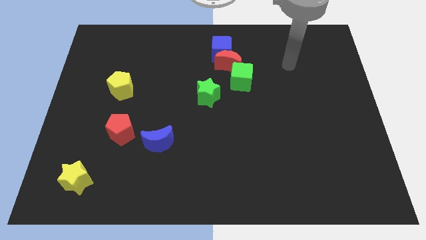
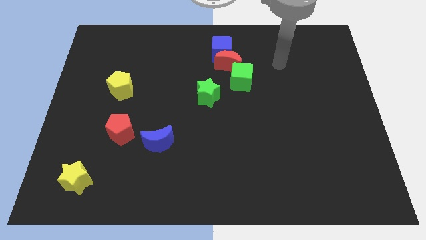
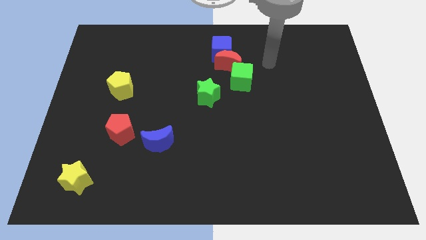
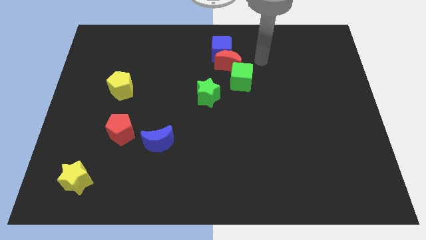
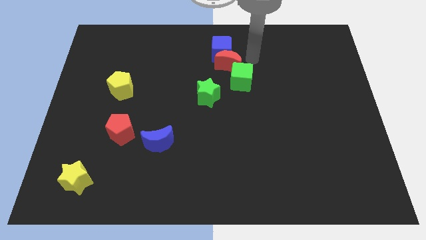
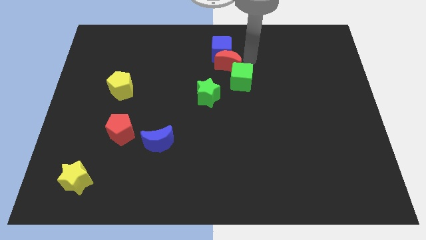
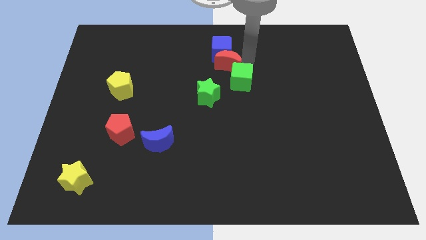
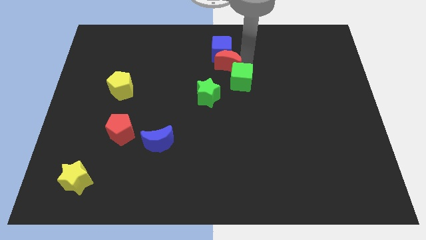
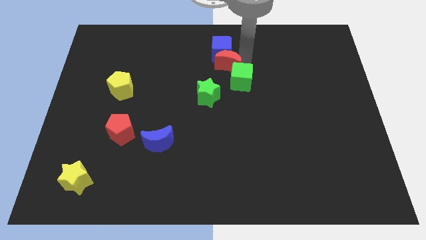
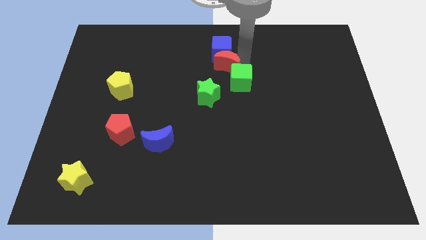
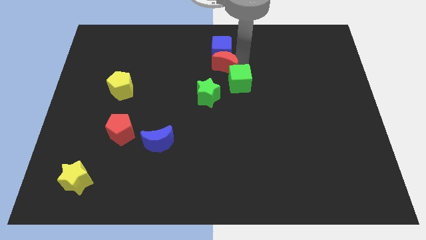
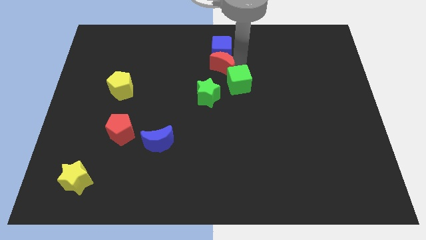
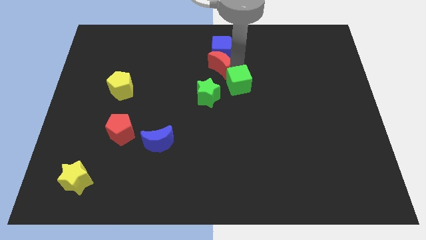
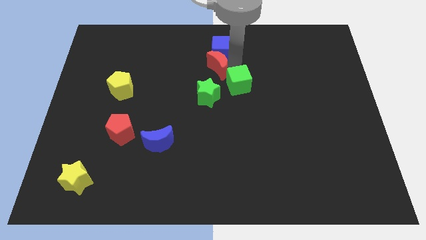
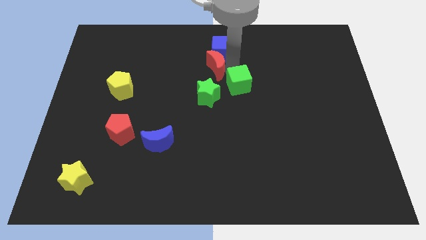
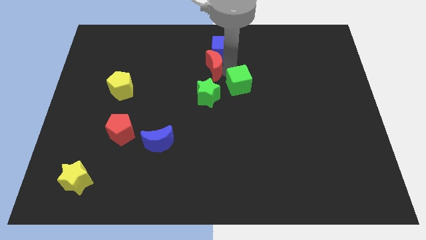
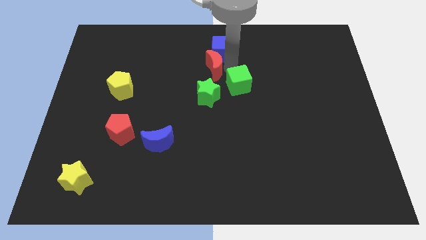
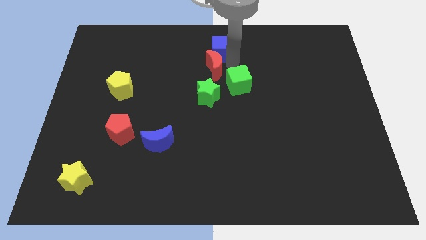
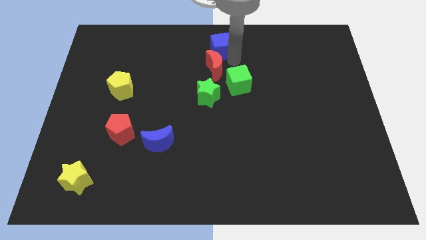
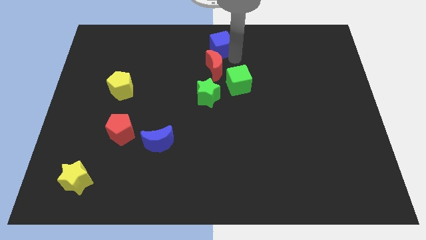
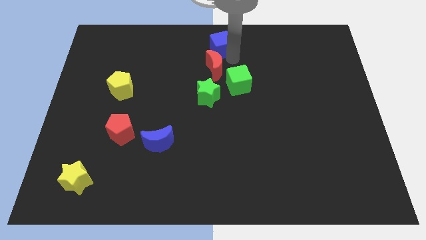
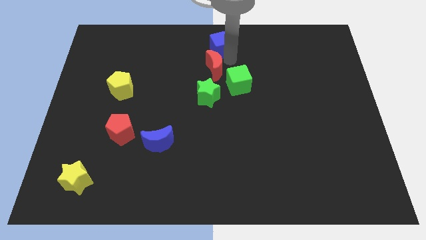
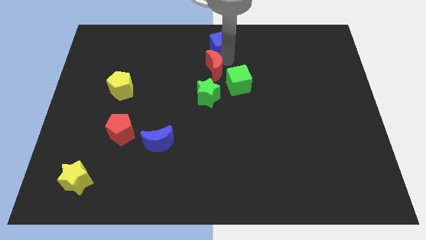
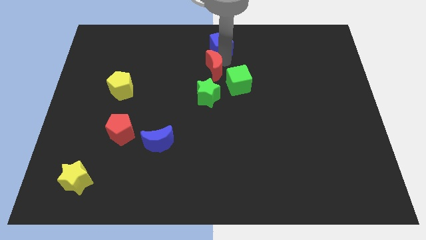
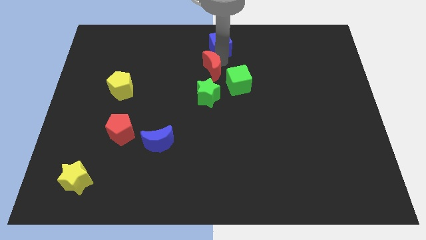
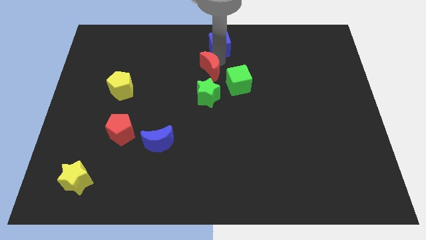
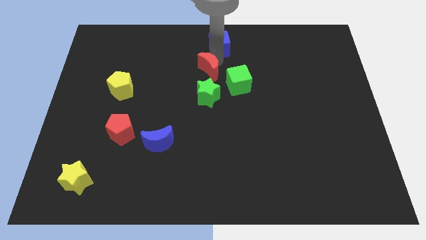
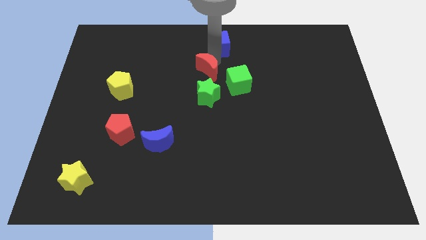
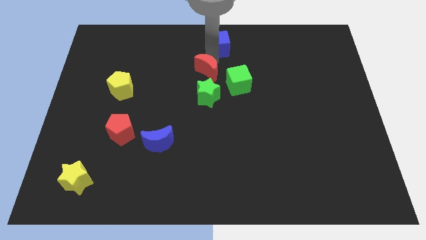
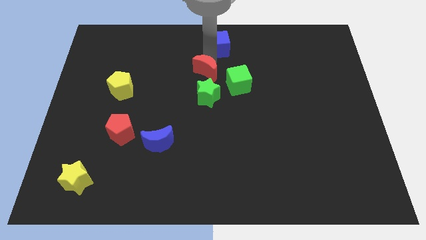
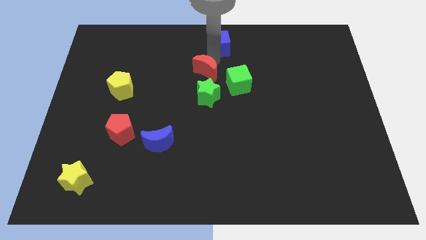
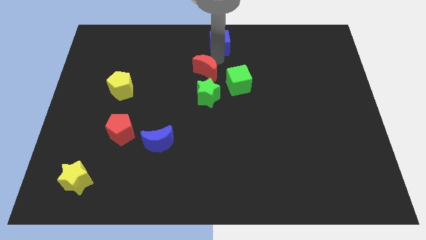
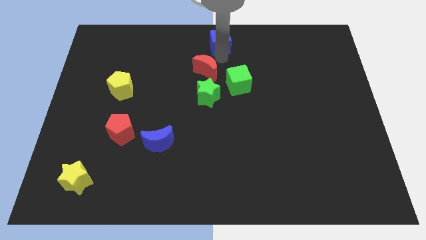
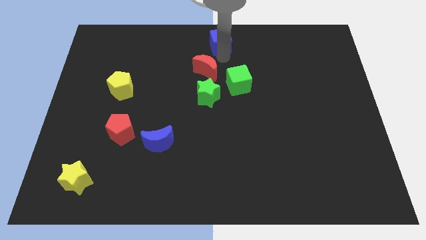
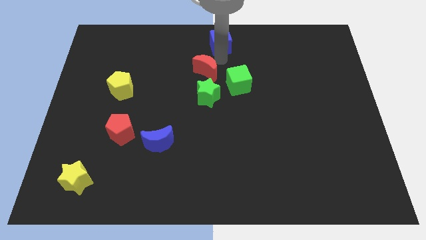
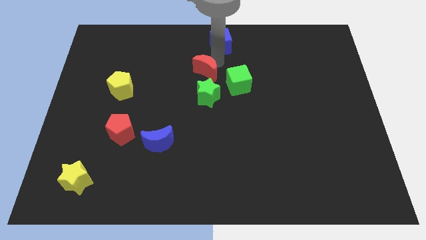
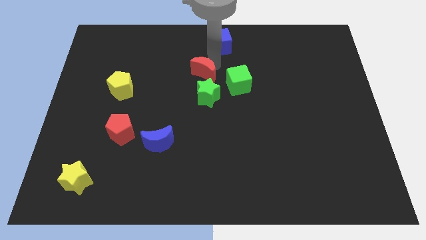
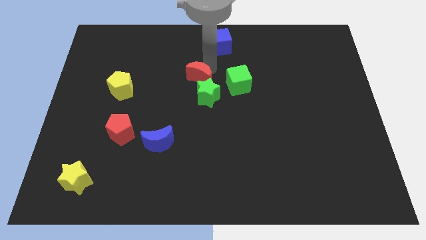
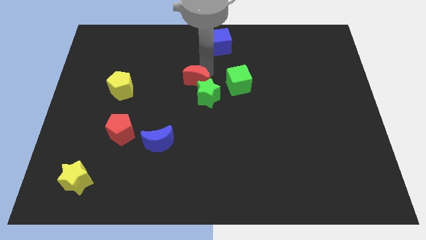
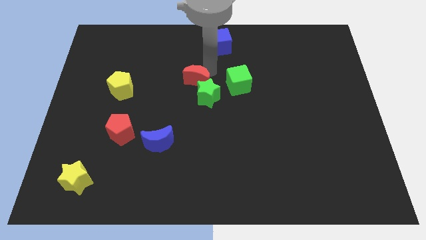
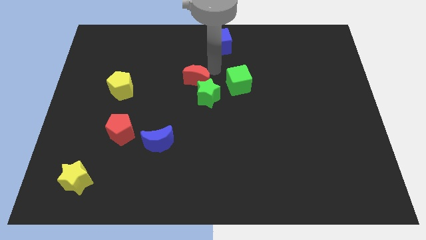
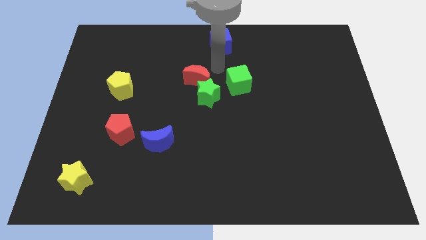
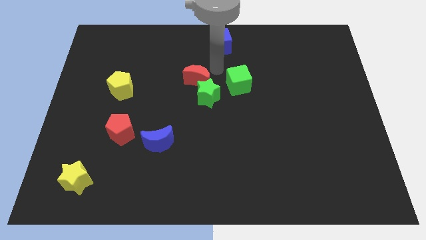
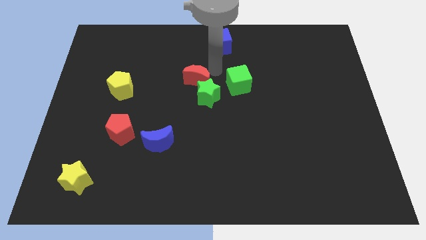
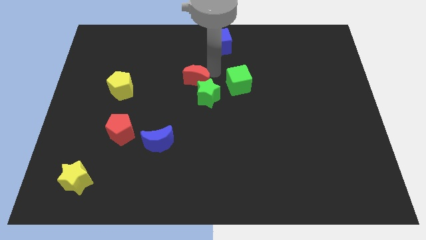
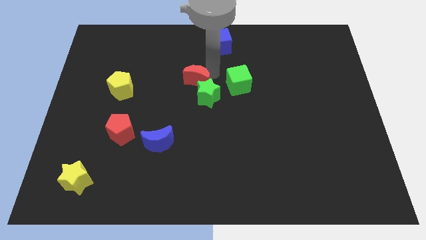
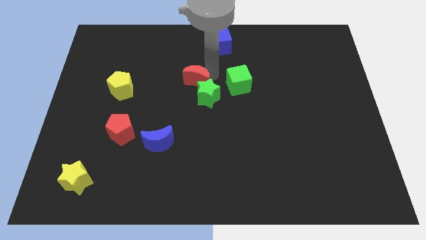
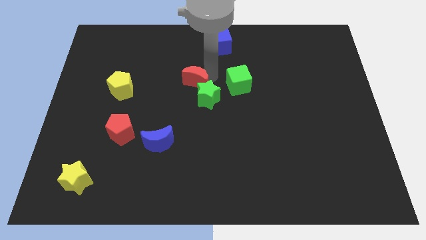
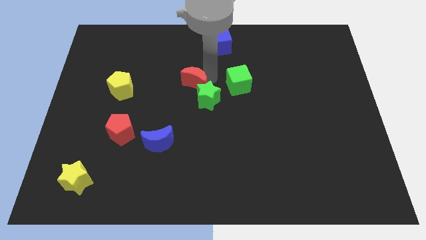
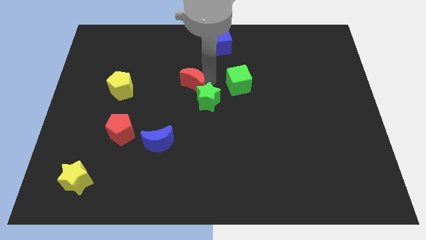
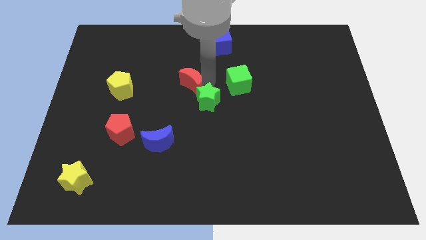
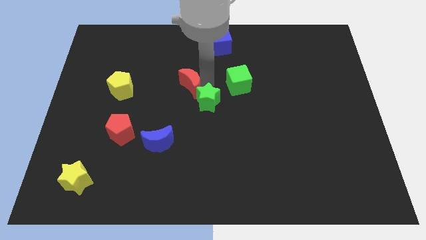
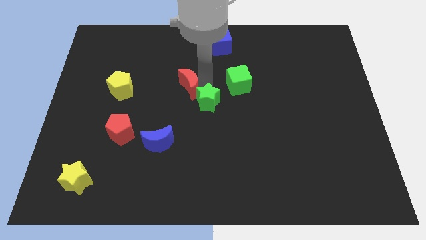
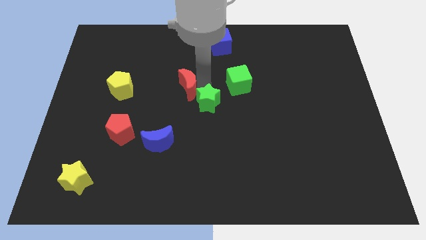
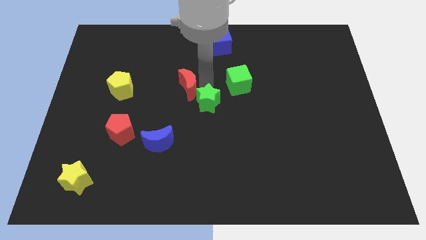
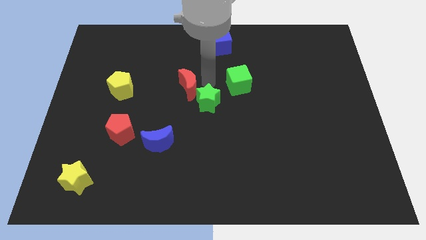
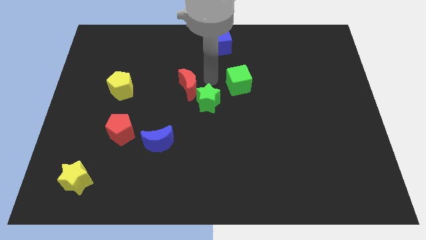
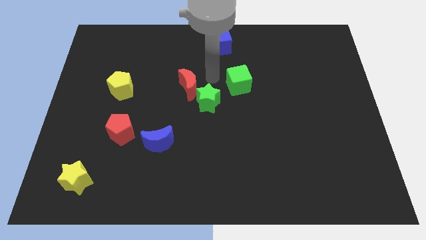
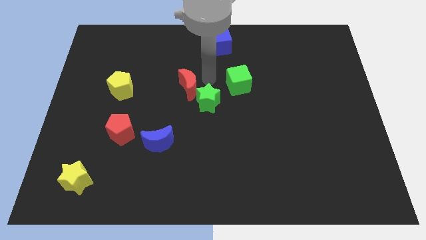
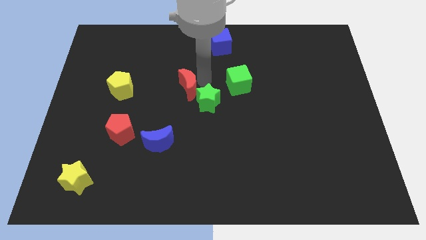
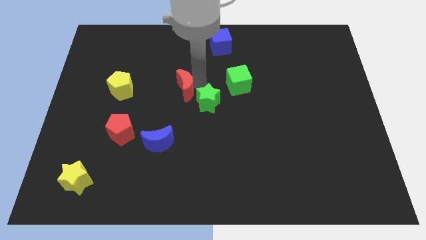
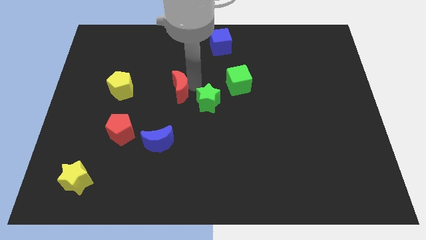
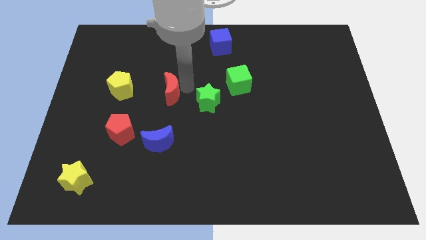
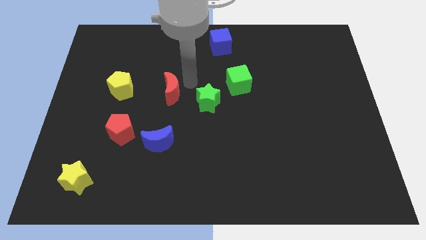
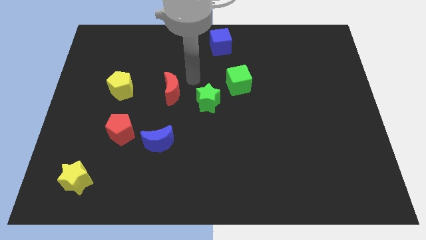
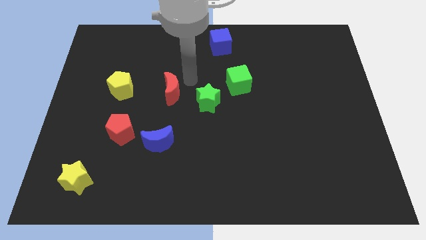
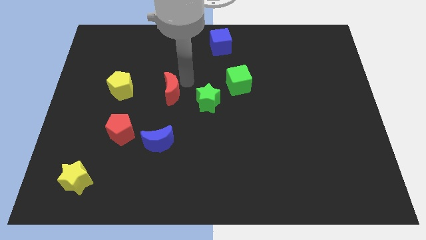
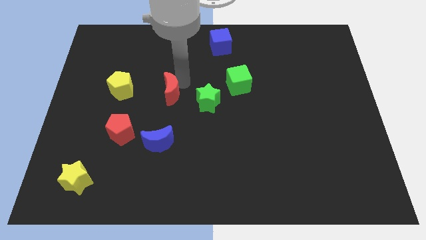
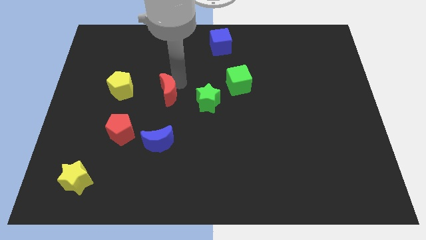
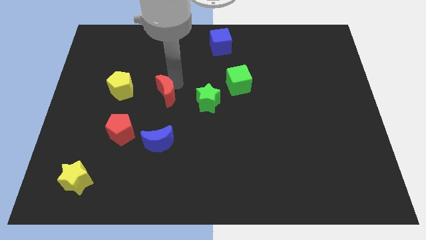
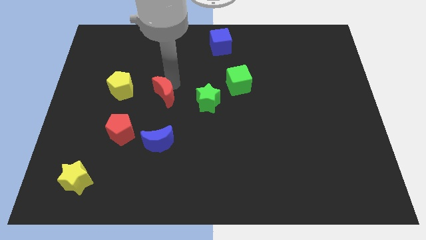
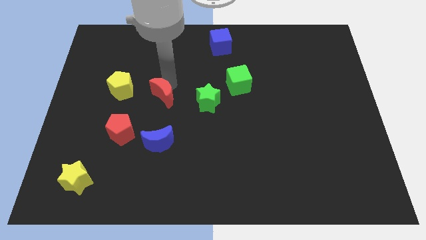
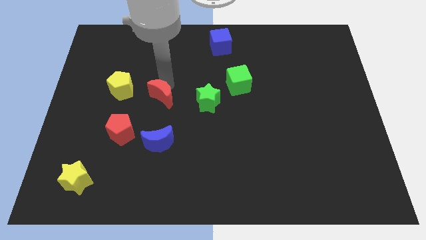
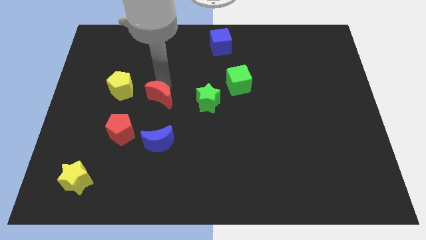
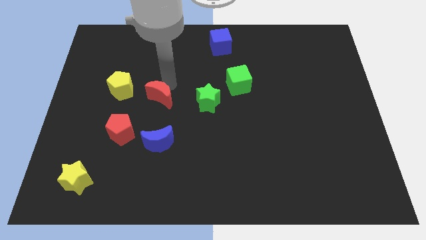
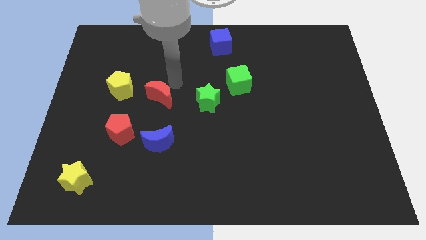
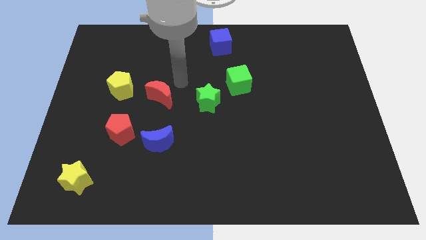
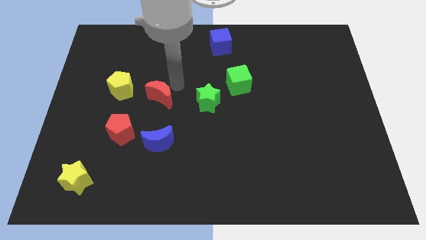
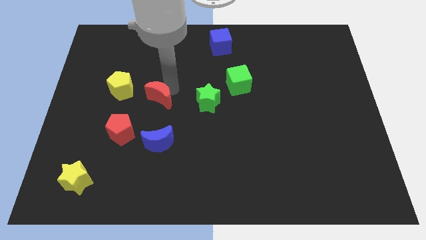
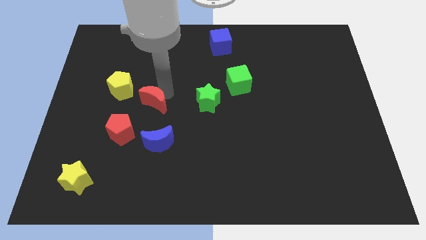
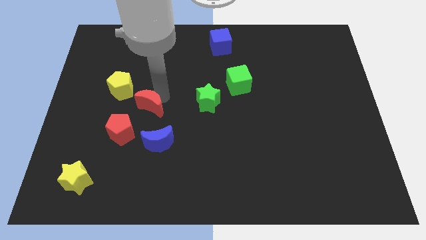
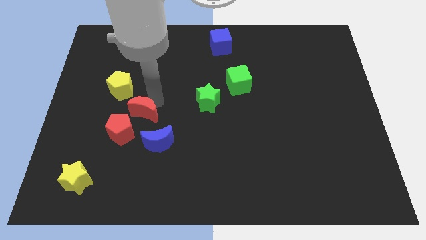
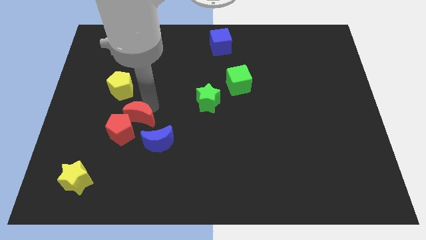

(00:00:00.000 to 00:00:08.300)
push the red moon to the red pentagon
